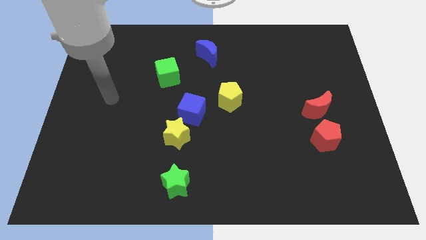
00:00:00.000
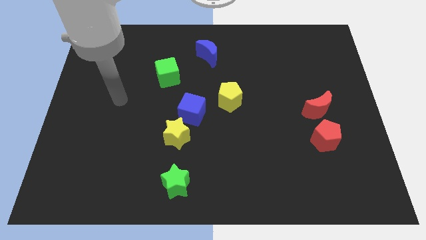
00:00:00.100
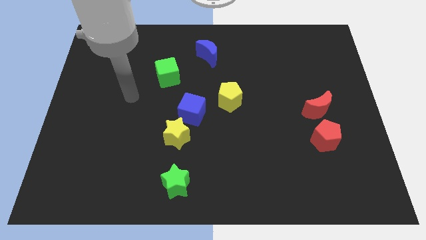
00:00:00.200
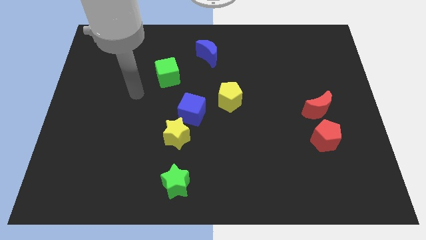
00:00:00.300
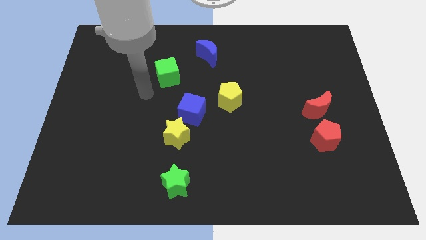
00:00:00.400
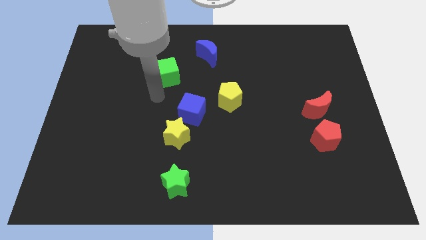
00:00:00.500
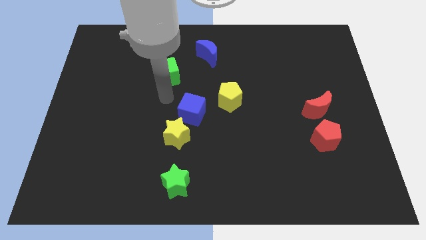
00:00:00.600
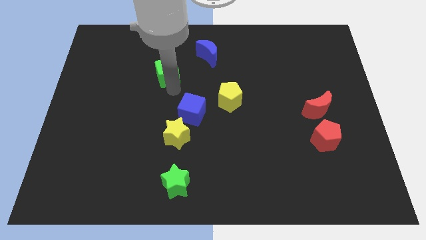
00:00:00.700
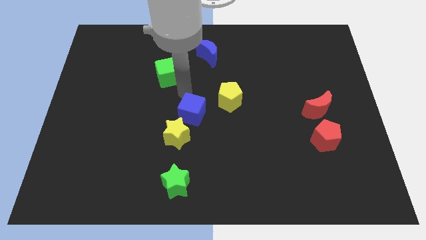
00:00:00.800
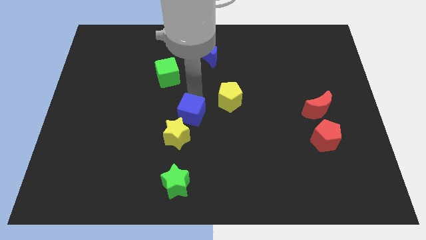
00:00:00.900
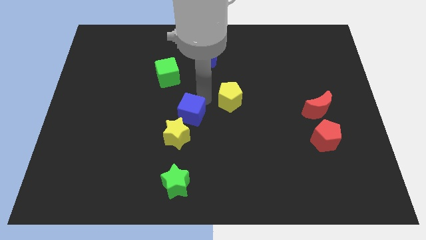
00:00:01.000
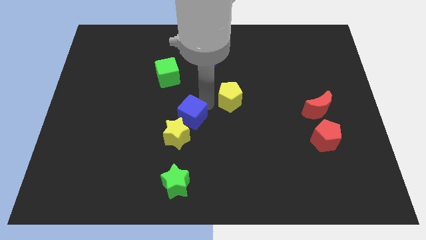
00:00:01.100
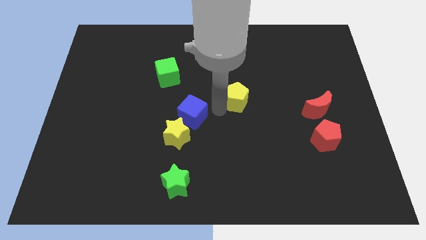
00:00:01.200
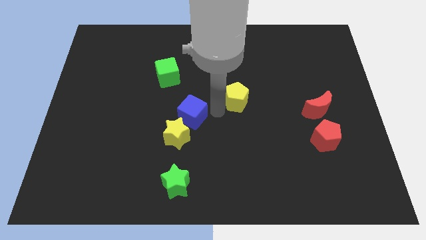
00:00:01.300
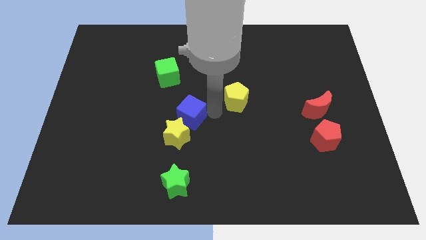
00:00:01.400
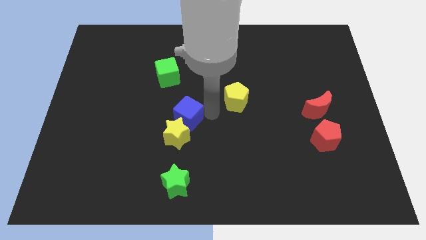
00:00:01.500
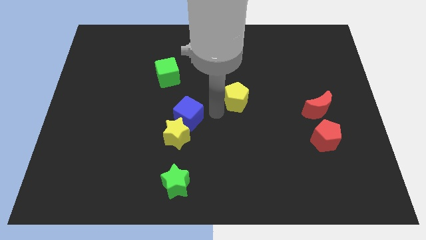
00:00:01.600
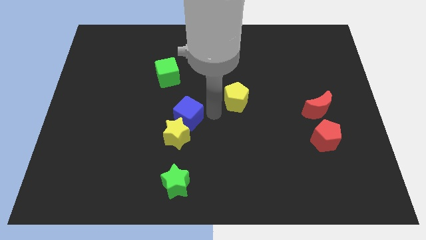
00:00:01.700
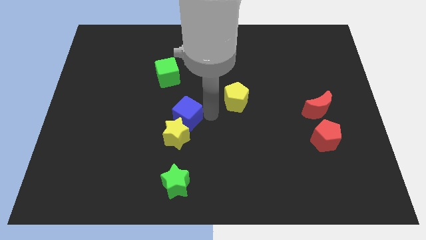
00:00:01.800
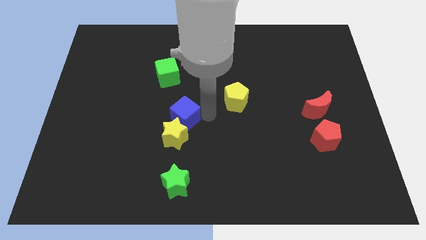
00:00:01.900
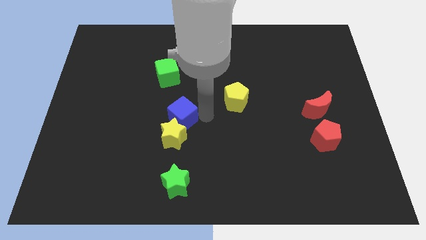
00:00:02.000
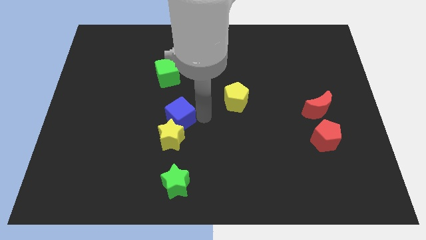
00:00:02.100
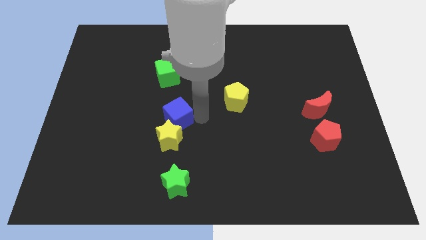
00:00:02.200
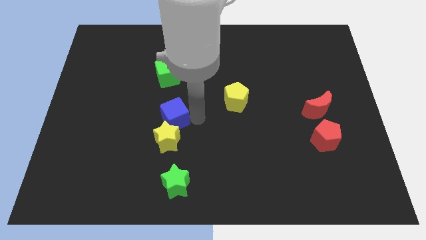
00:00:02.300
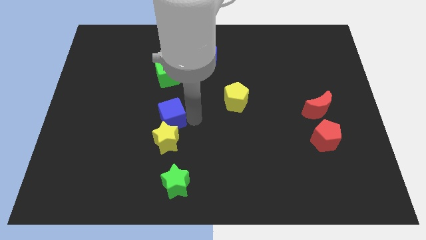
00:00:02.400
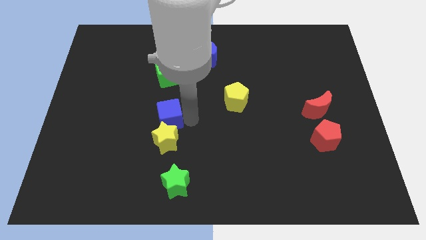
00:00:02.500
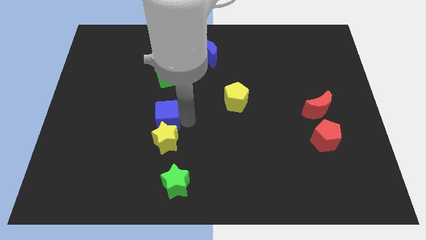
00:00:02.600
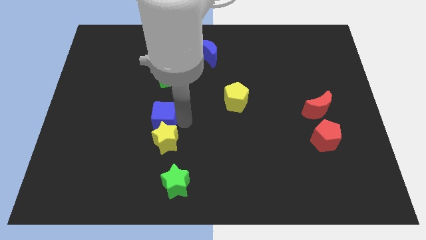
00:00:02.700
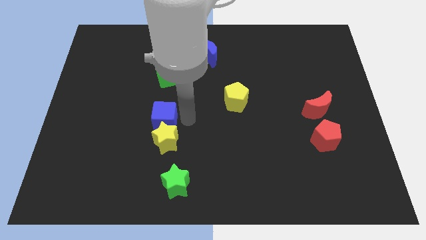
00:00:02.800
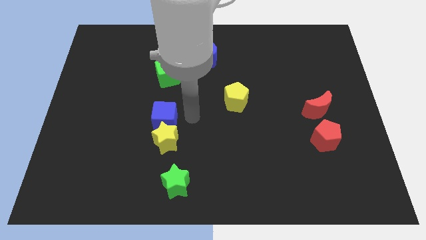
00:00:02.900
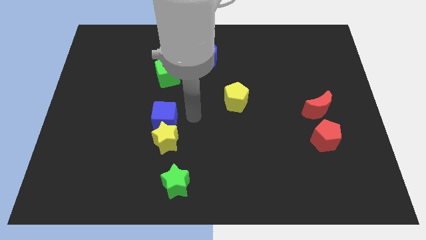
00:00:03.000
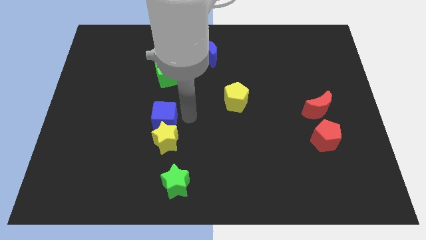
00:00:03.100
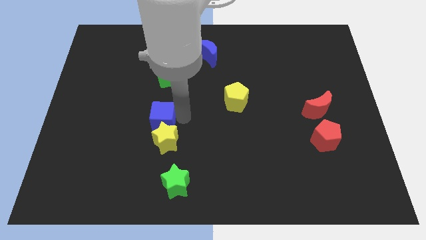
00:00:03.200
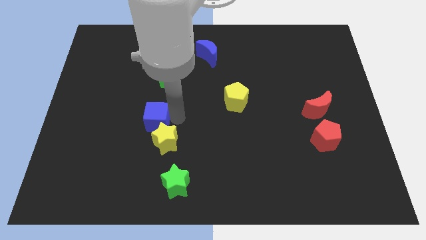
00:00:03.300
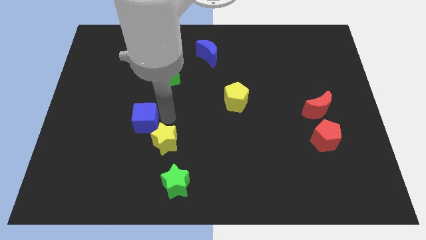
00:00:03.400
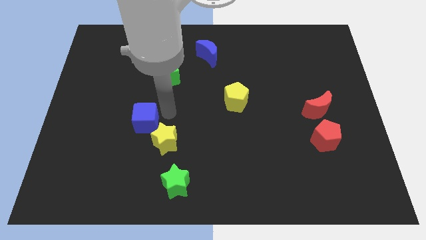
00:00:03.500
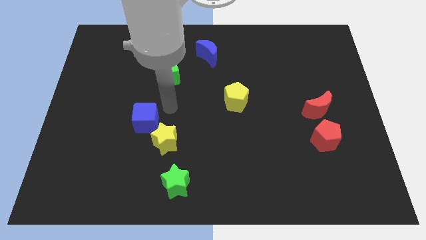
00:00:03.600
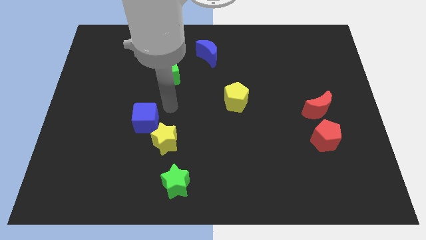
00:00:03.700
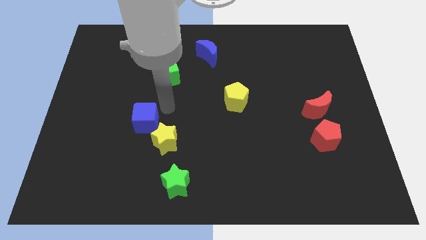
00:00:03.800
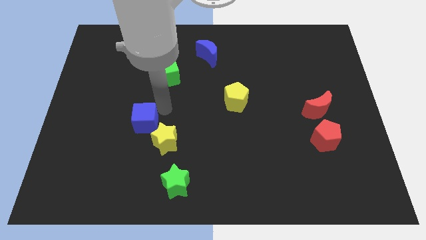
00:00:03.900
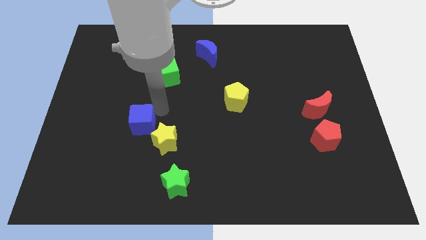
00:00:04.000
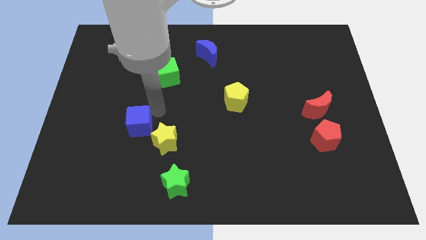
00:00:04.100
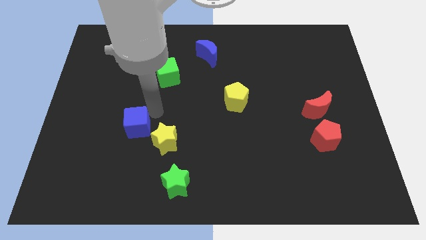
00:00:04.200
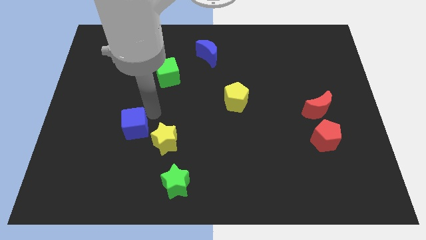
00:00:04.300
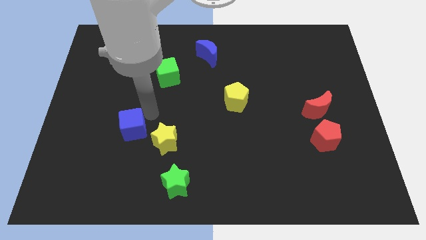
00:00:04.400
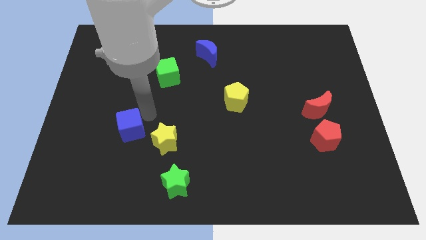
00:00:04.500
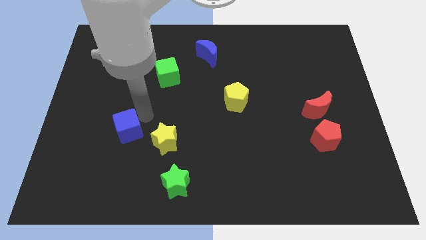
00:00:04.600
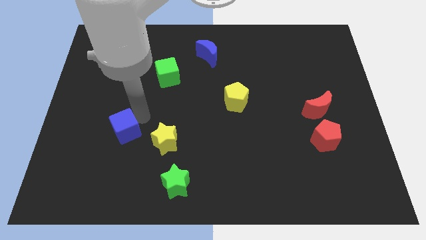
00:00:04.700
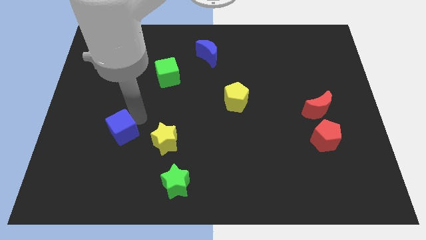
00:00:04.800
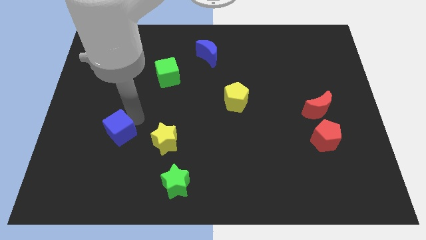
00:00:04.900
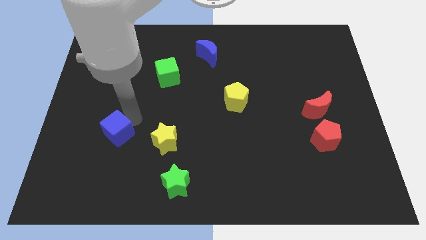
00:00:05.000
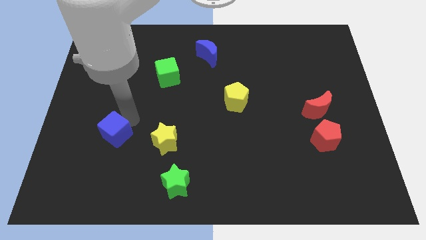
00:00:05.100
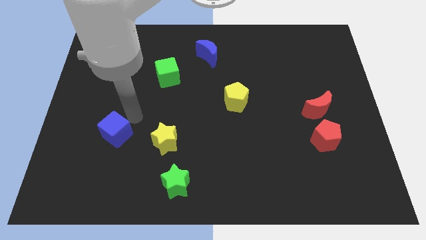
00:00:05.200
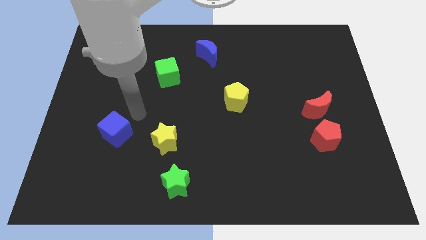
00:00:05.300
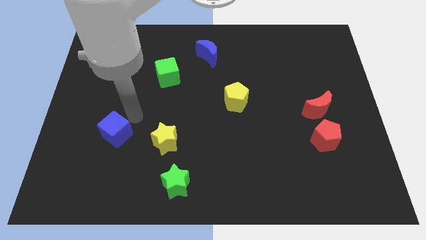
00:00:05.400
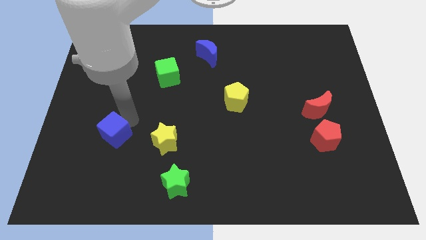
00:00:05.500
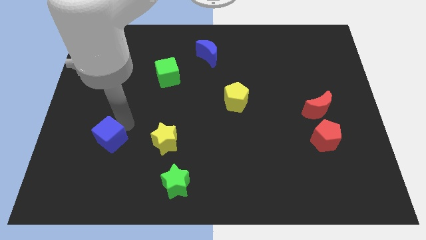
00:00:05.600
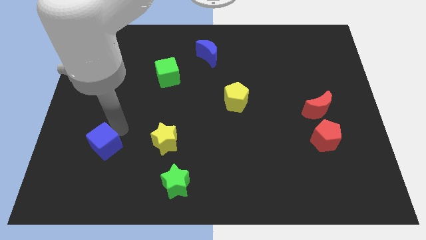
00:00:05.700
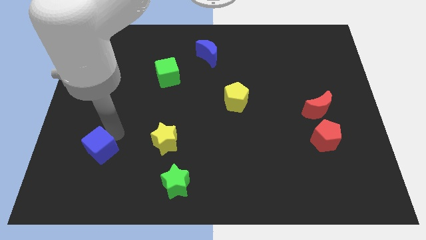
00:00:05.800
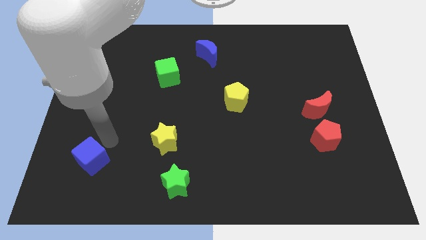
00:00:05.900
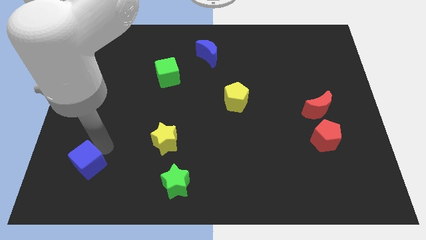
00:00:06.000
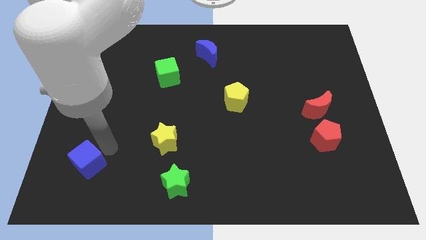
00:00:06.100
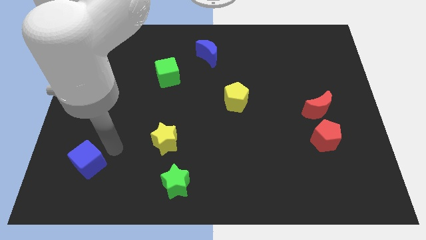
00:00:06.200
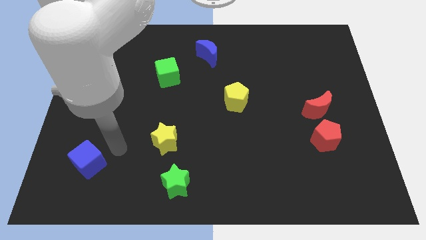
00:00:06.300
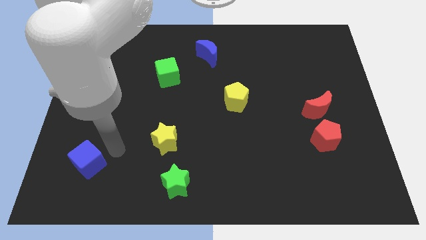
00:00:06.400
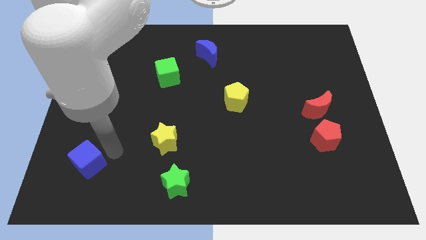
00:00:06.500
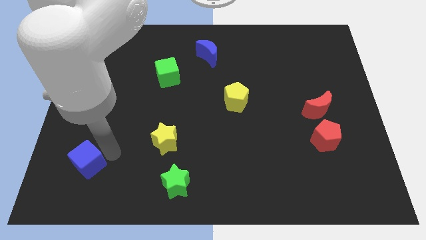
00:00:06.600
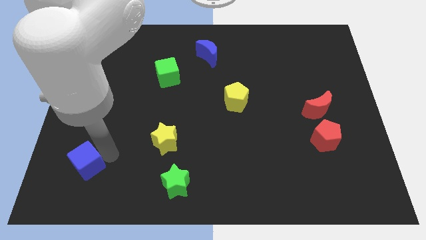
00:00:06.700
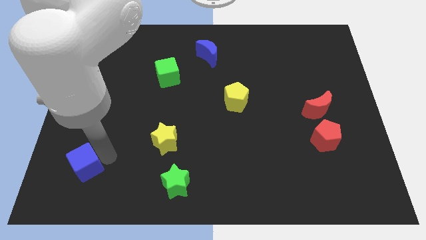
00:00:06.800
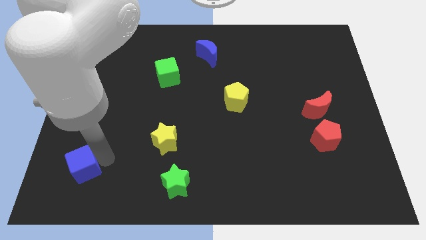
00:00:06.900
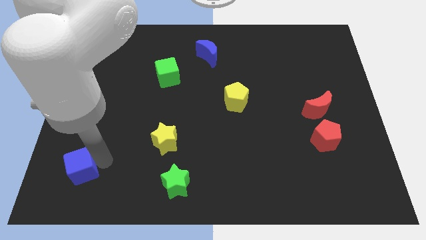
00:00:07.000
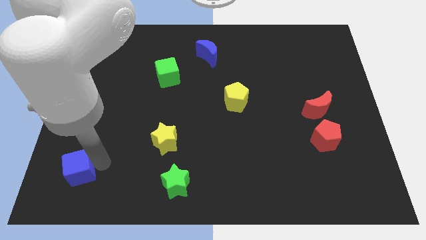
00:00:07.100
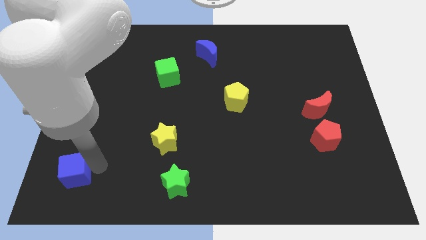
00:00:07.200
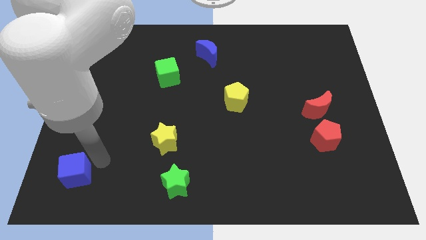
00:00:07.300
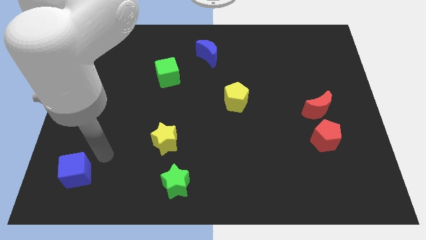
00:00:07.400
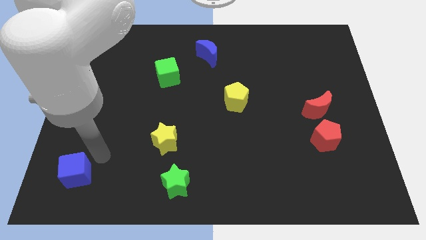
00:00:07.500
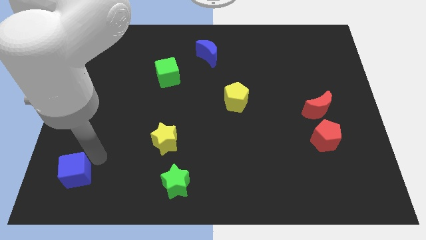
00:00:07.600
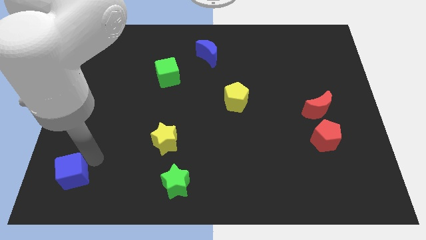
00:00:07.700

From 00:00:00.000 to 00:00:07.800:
put the blue cube to the bottom left corner
